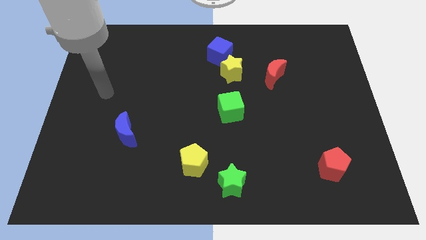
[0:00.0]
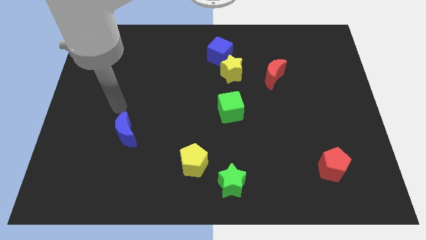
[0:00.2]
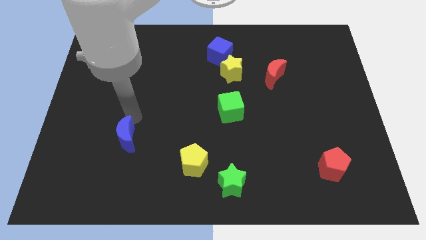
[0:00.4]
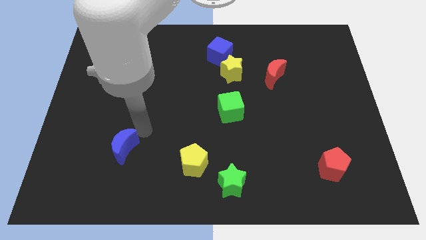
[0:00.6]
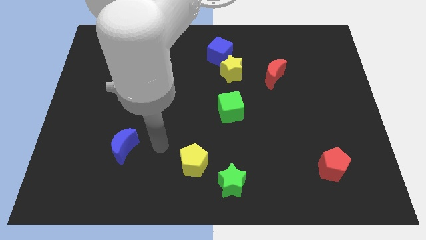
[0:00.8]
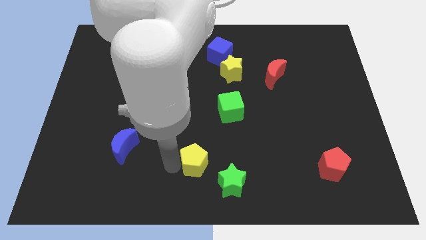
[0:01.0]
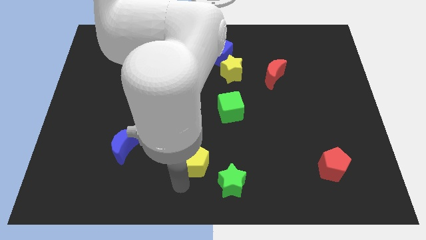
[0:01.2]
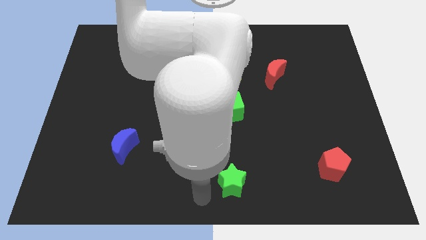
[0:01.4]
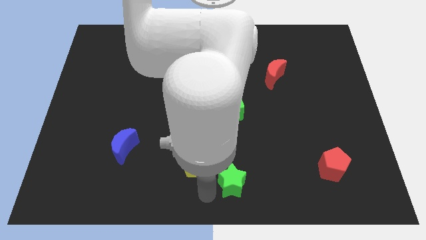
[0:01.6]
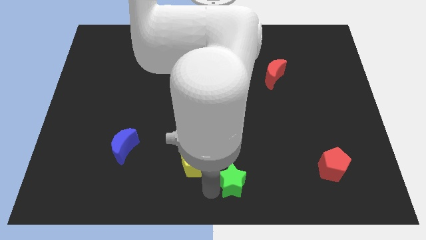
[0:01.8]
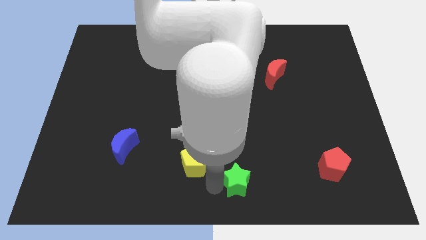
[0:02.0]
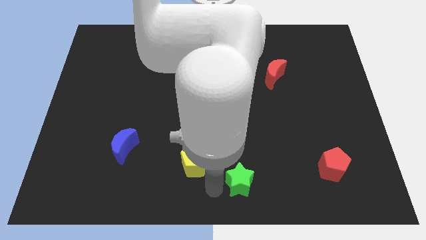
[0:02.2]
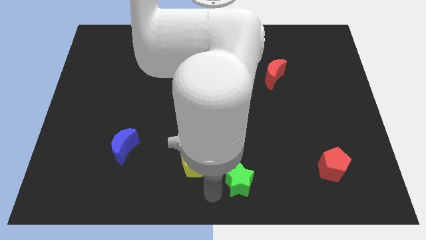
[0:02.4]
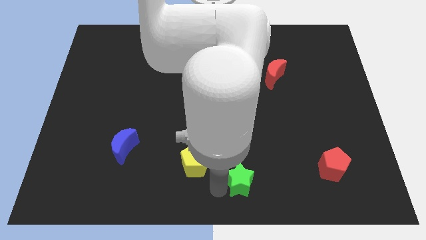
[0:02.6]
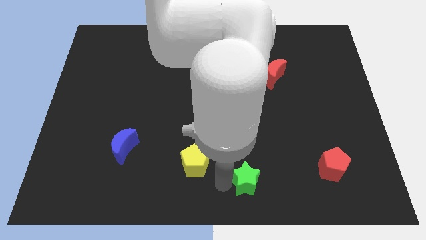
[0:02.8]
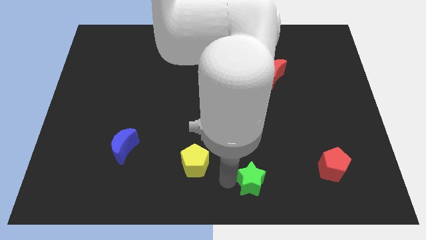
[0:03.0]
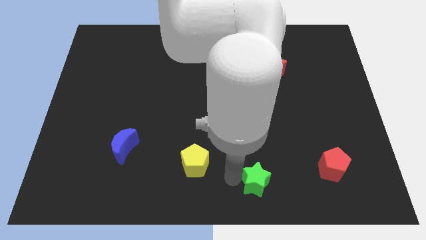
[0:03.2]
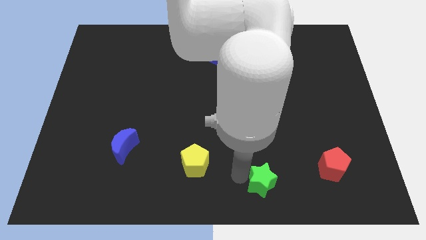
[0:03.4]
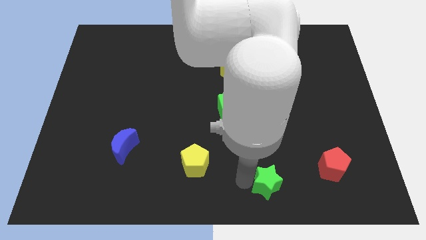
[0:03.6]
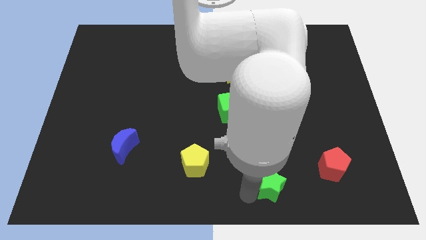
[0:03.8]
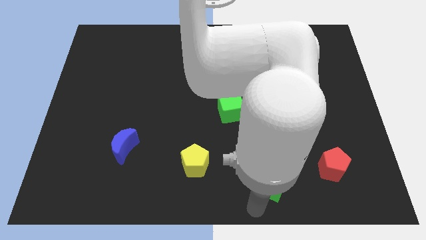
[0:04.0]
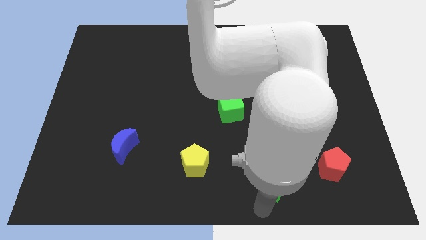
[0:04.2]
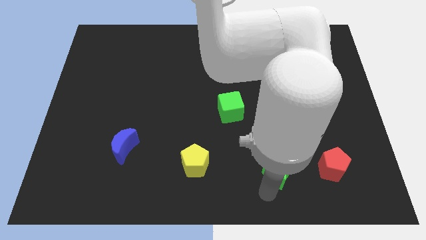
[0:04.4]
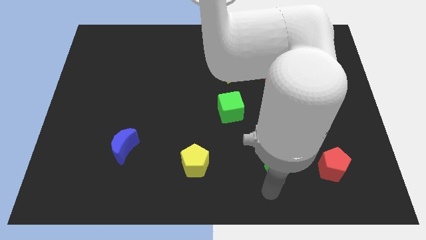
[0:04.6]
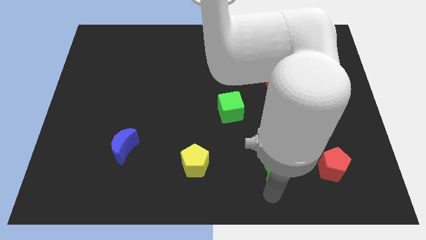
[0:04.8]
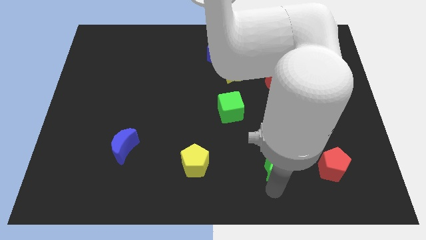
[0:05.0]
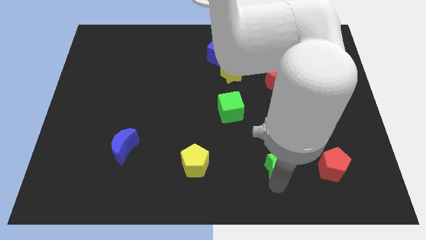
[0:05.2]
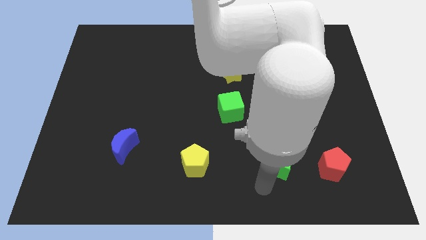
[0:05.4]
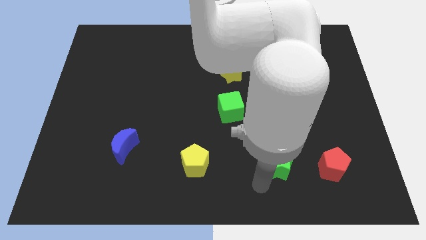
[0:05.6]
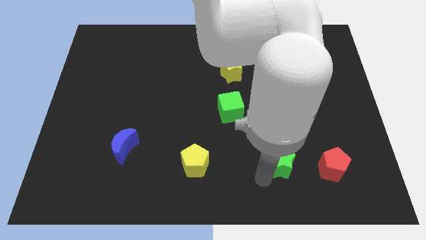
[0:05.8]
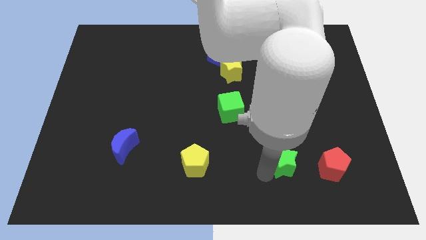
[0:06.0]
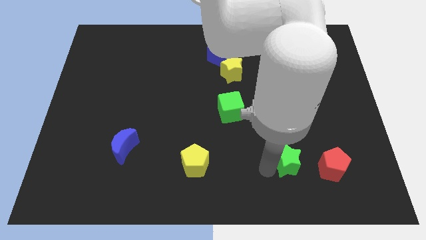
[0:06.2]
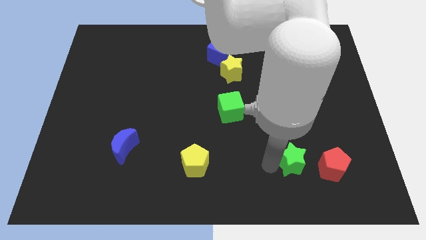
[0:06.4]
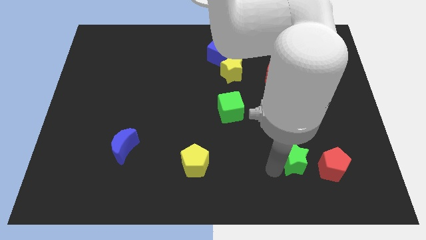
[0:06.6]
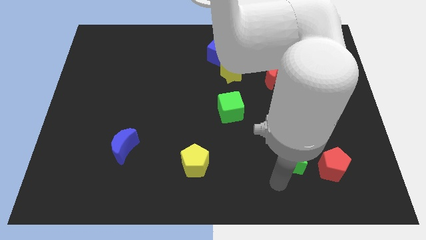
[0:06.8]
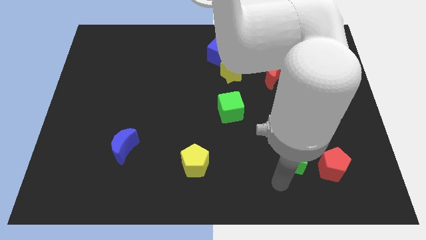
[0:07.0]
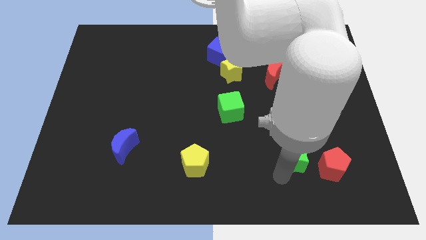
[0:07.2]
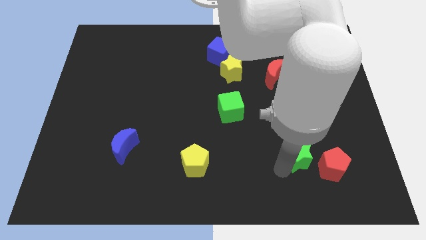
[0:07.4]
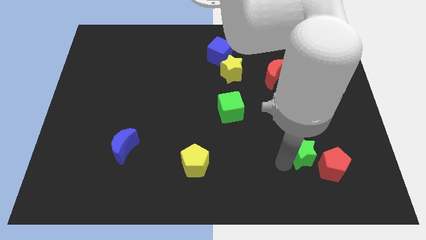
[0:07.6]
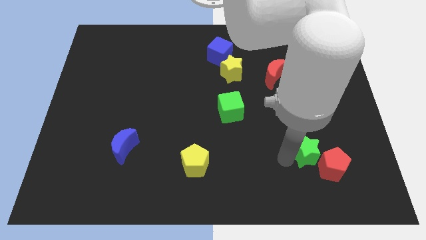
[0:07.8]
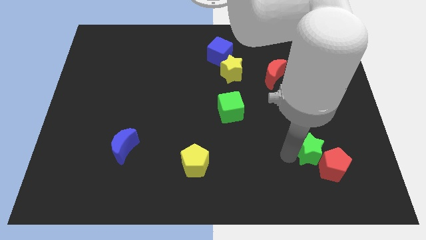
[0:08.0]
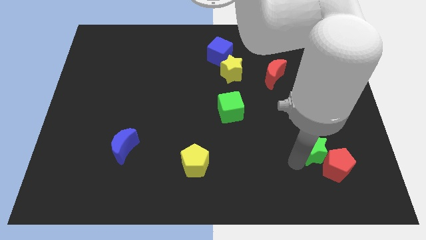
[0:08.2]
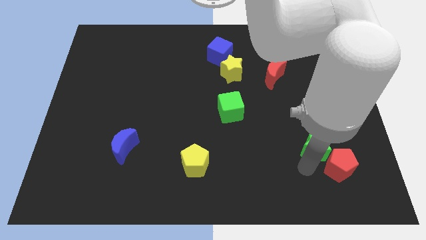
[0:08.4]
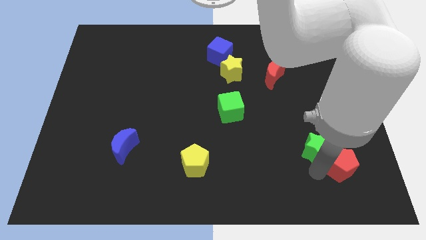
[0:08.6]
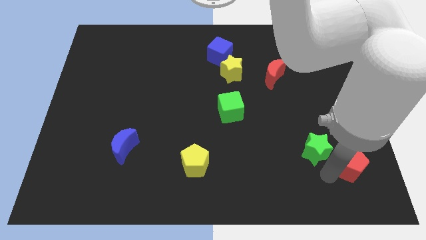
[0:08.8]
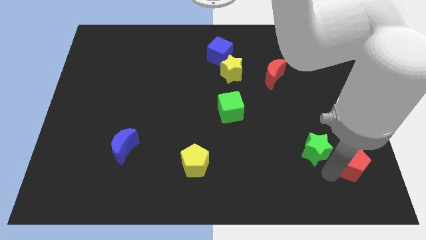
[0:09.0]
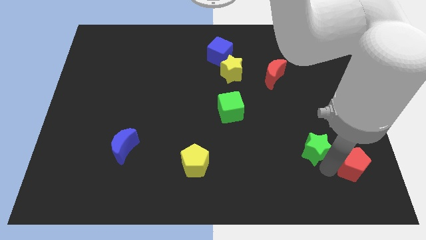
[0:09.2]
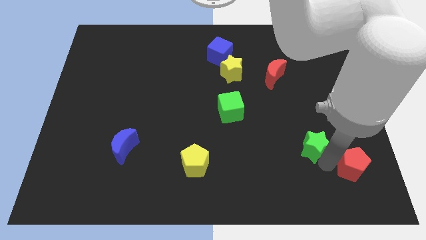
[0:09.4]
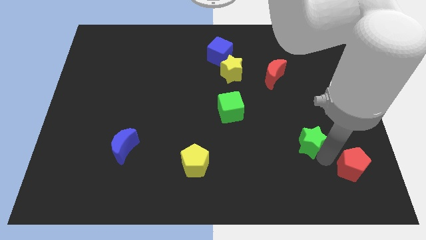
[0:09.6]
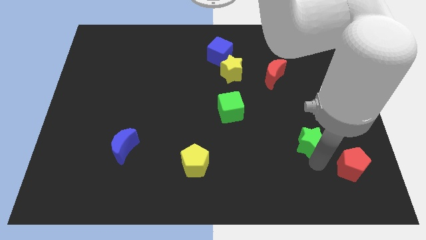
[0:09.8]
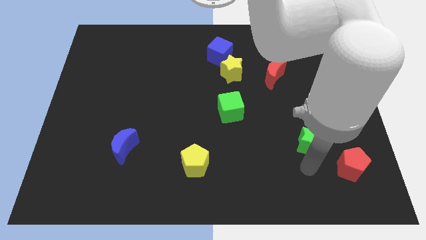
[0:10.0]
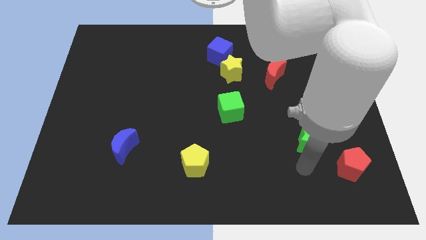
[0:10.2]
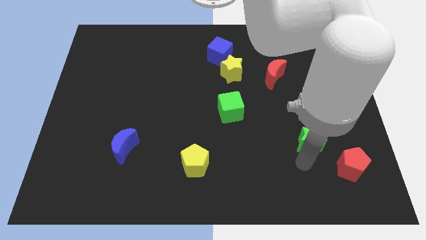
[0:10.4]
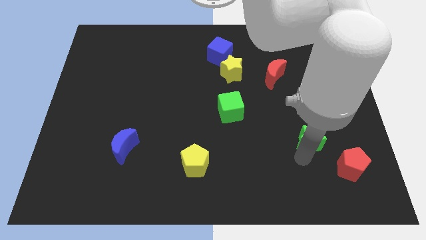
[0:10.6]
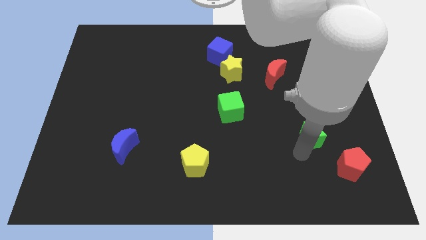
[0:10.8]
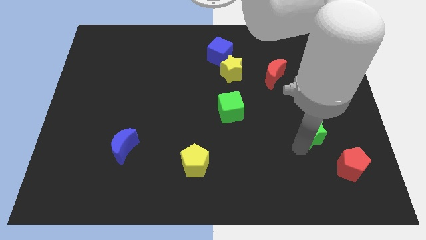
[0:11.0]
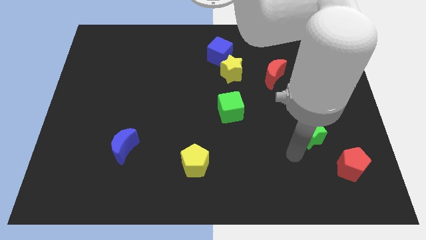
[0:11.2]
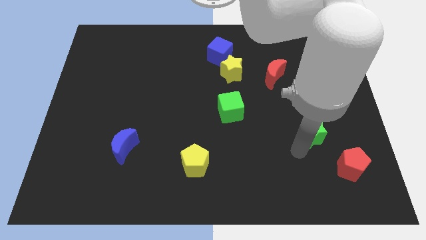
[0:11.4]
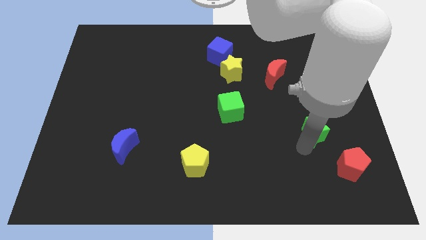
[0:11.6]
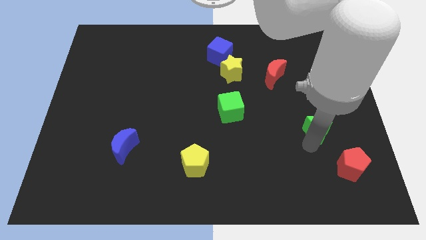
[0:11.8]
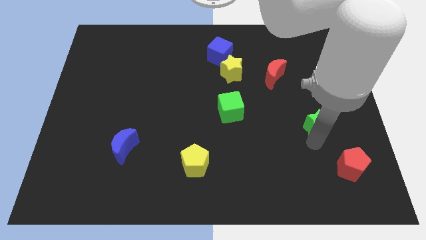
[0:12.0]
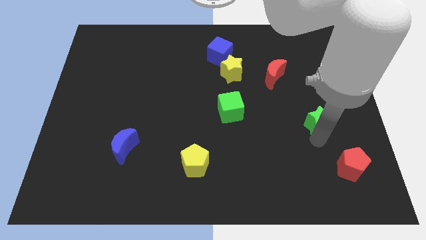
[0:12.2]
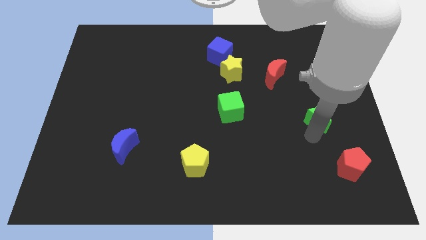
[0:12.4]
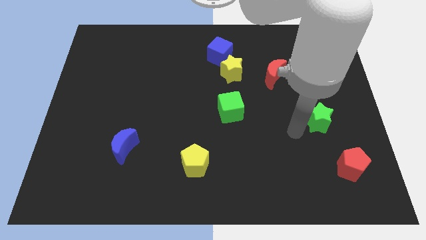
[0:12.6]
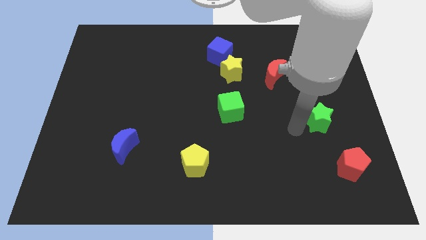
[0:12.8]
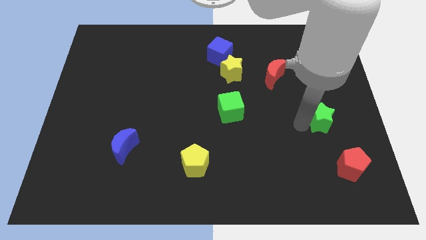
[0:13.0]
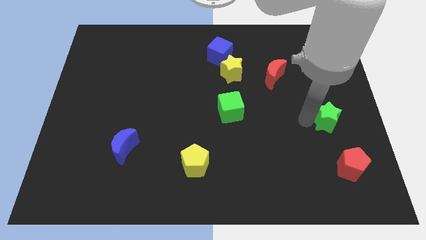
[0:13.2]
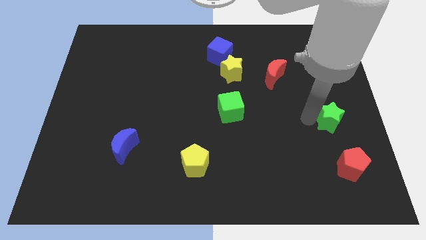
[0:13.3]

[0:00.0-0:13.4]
move the green star to the right side of the board
